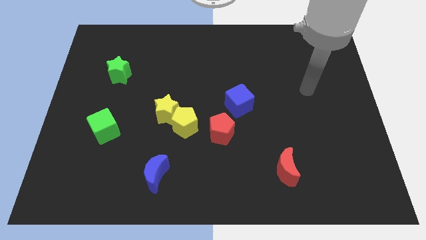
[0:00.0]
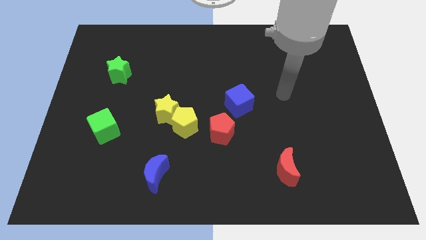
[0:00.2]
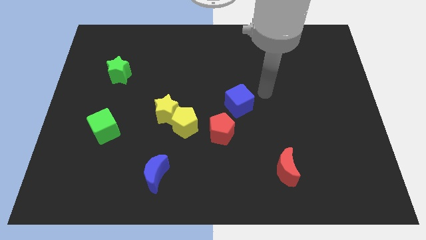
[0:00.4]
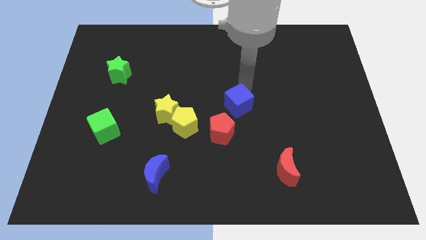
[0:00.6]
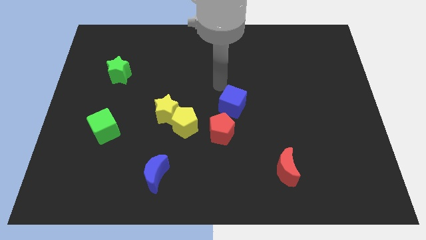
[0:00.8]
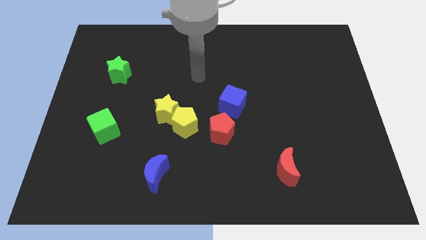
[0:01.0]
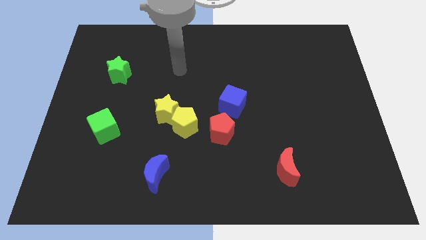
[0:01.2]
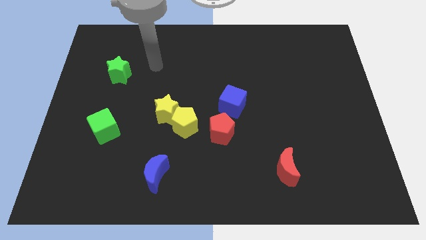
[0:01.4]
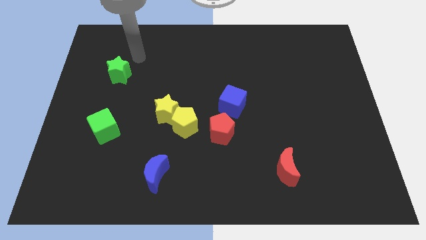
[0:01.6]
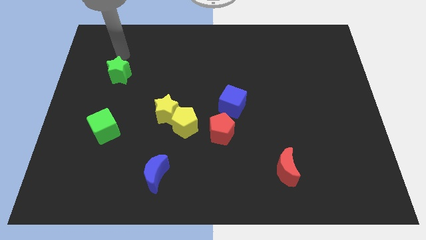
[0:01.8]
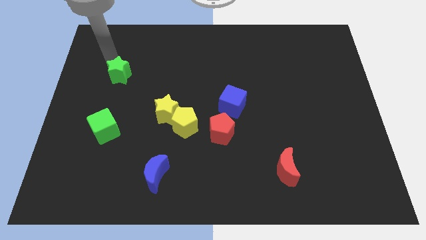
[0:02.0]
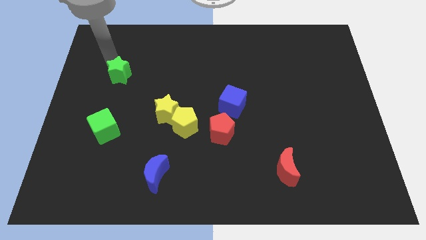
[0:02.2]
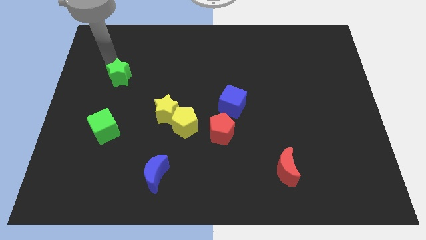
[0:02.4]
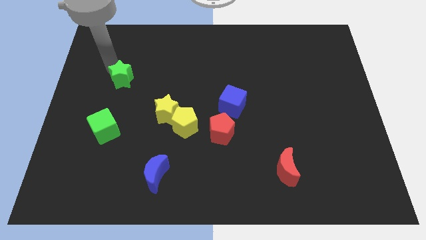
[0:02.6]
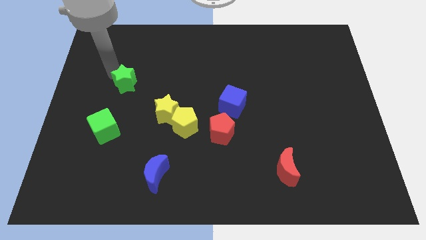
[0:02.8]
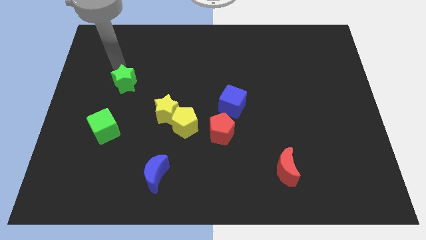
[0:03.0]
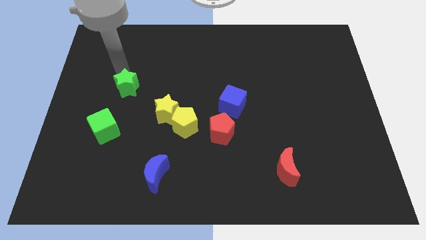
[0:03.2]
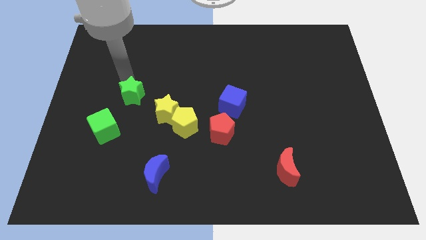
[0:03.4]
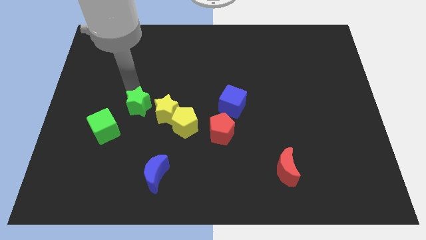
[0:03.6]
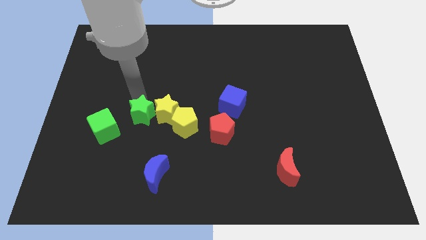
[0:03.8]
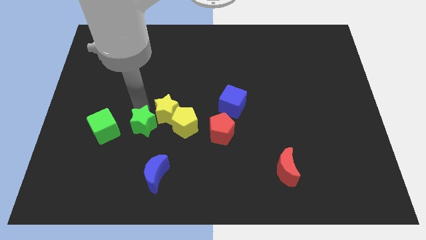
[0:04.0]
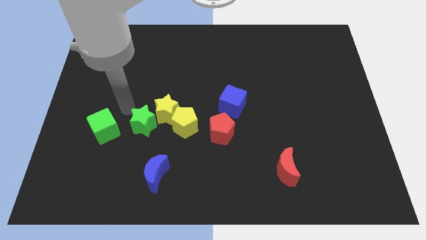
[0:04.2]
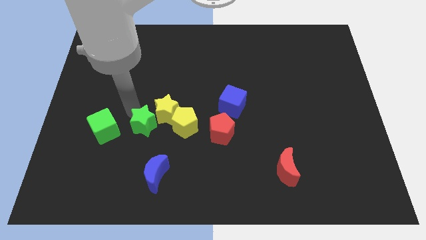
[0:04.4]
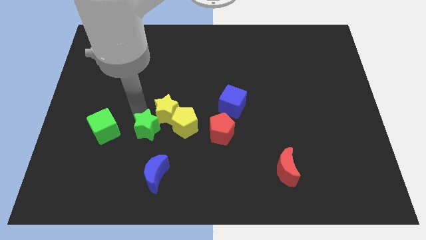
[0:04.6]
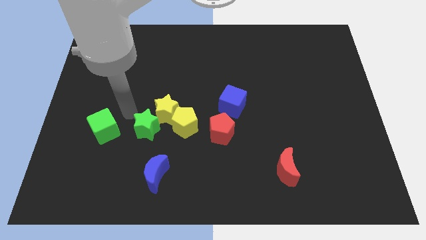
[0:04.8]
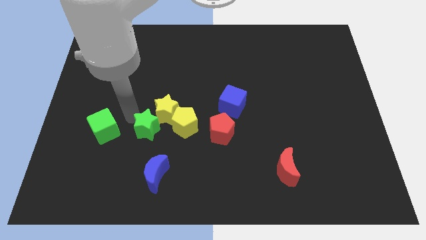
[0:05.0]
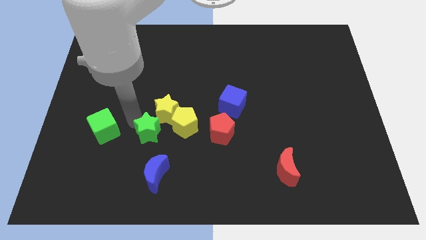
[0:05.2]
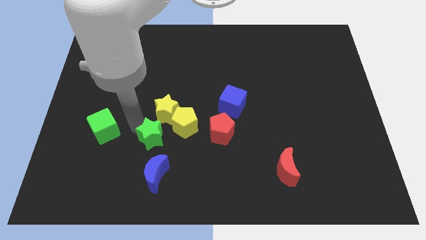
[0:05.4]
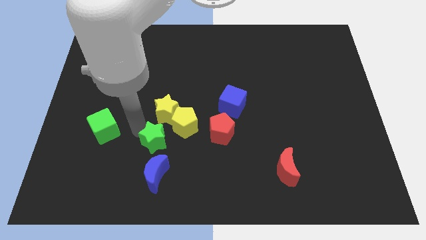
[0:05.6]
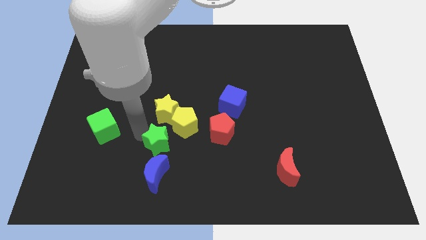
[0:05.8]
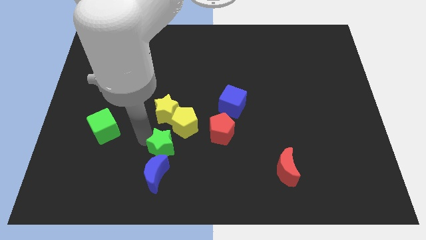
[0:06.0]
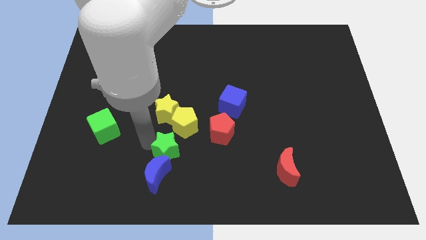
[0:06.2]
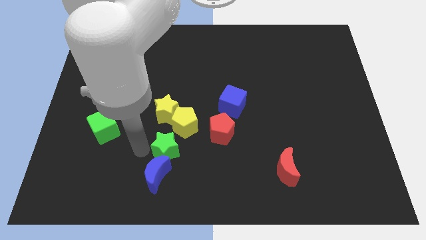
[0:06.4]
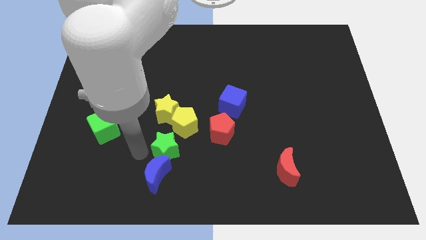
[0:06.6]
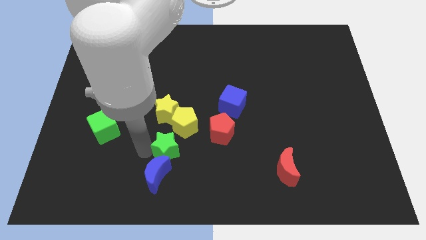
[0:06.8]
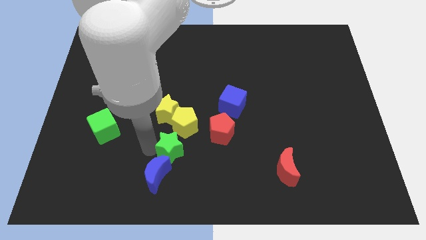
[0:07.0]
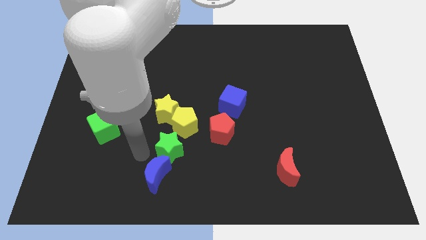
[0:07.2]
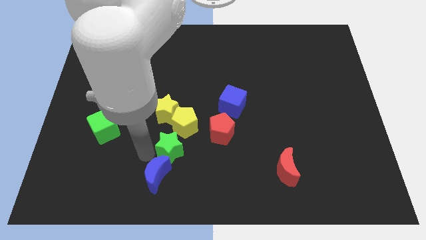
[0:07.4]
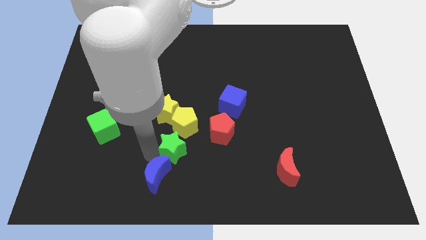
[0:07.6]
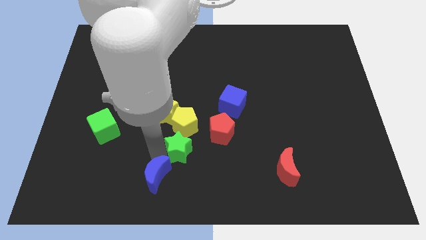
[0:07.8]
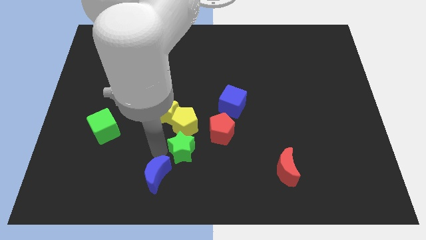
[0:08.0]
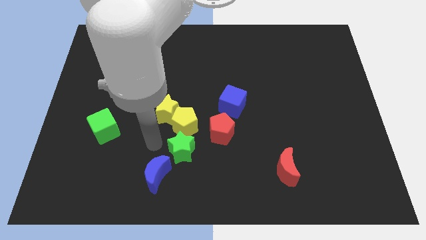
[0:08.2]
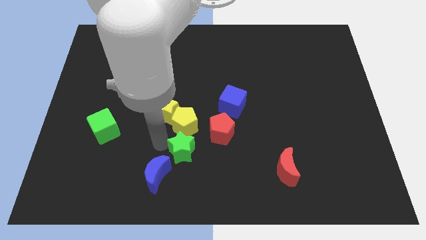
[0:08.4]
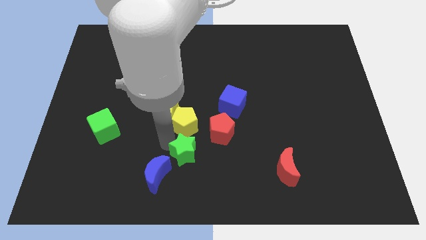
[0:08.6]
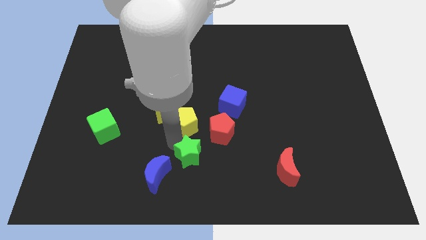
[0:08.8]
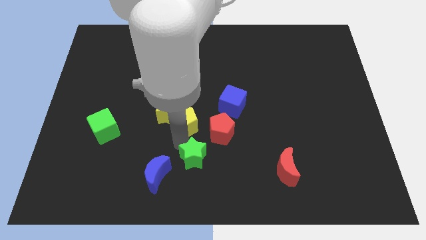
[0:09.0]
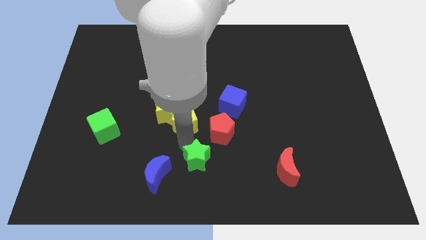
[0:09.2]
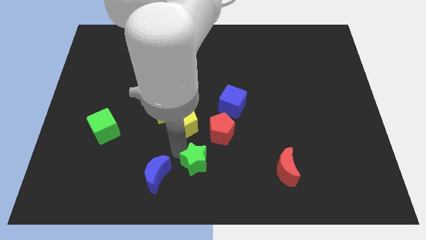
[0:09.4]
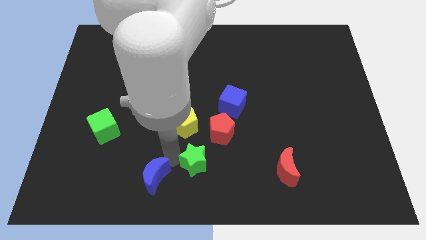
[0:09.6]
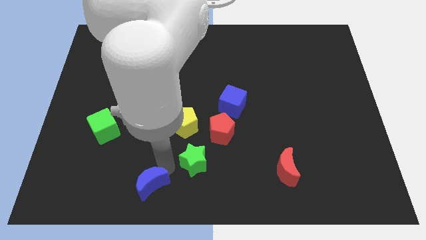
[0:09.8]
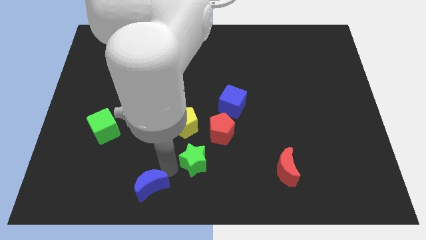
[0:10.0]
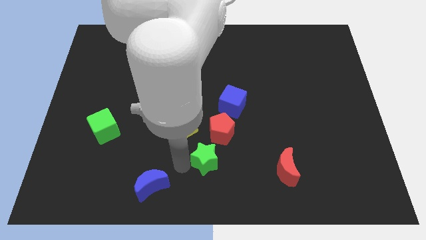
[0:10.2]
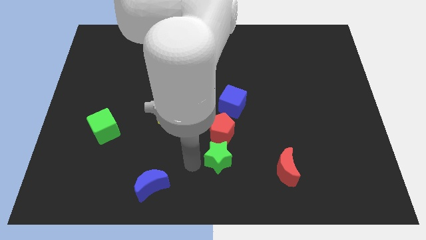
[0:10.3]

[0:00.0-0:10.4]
push the green star to the bottom of the blue cube

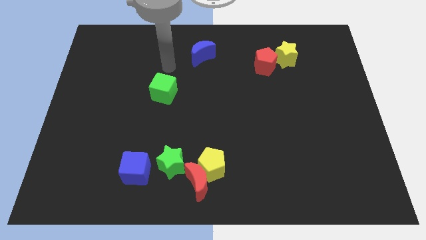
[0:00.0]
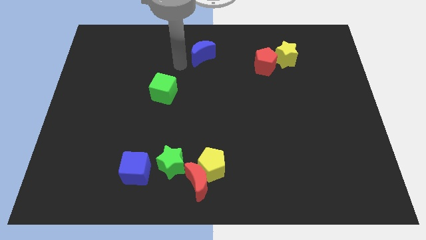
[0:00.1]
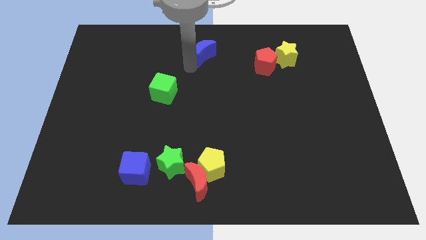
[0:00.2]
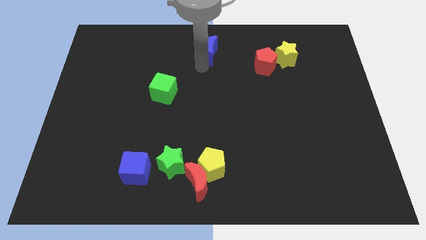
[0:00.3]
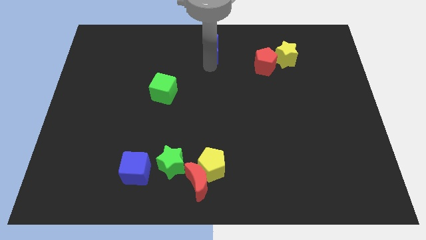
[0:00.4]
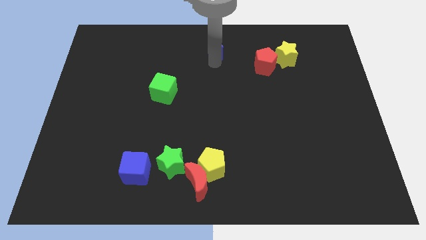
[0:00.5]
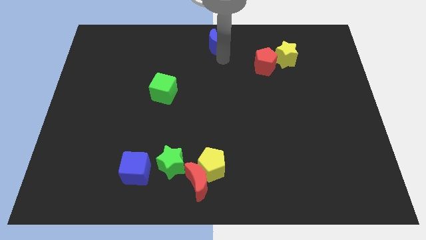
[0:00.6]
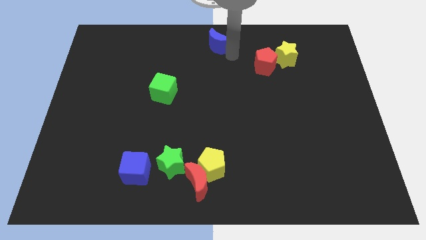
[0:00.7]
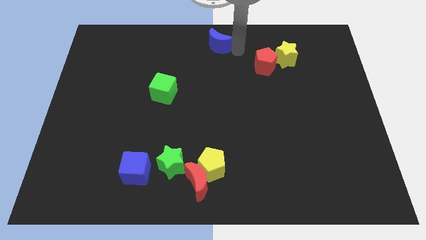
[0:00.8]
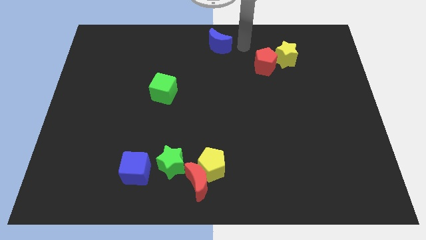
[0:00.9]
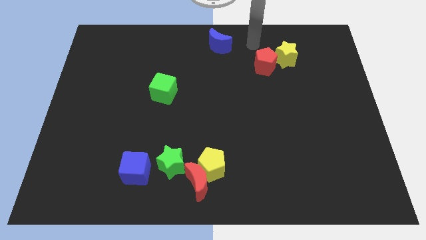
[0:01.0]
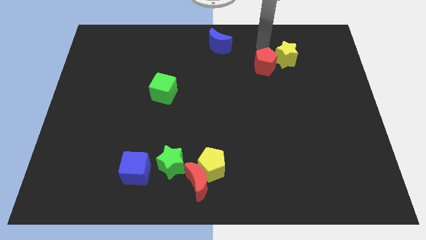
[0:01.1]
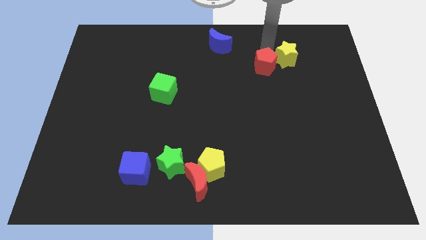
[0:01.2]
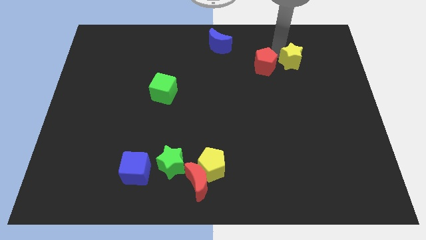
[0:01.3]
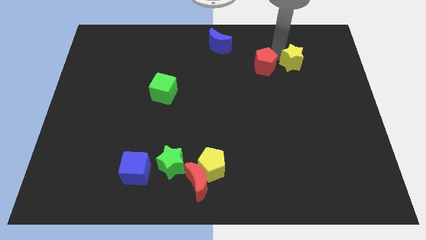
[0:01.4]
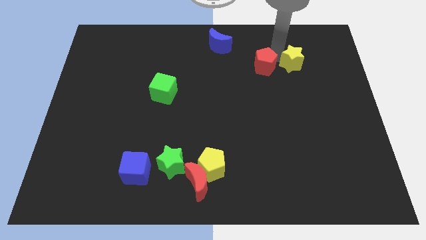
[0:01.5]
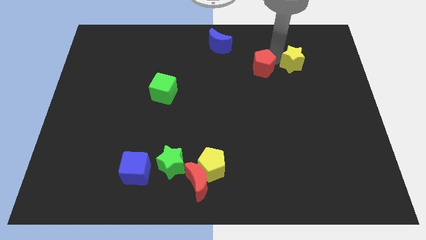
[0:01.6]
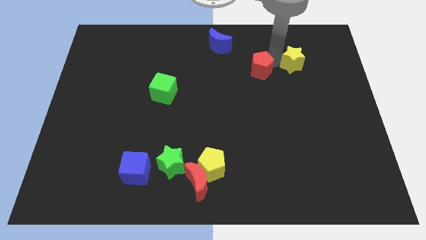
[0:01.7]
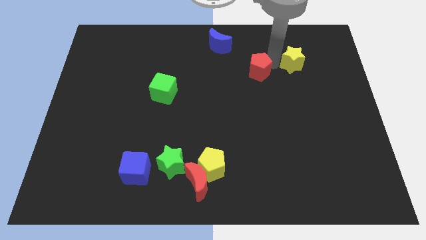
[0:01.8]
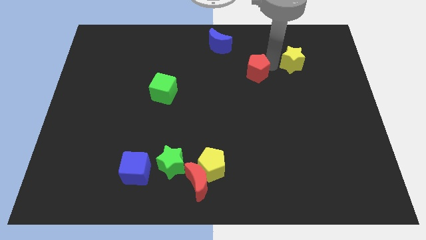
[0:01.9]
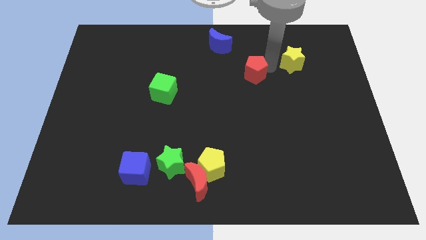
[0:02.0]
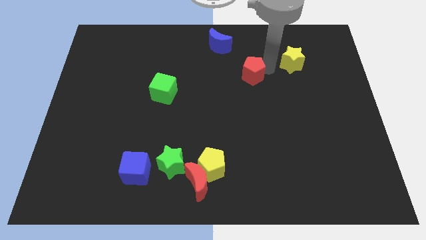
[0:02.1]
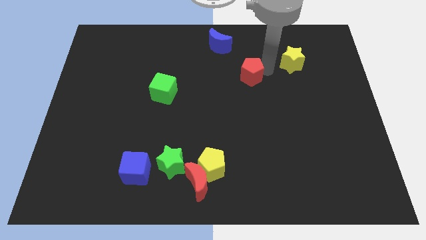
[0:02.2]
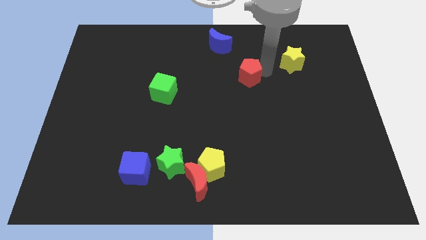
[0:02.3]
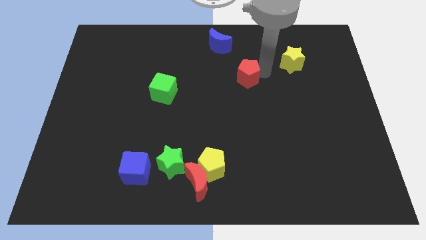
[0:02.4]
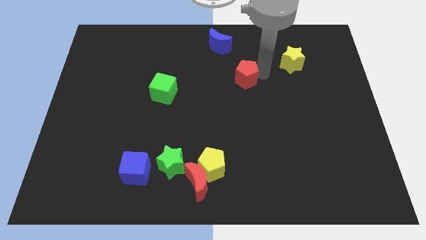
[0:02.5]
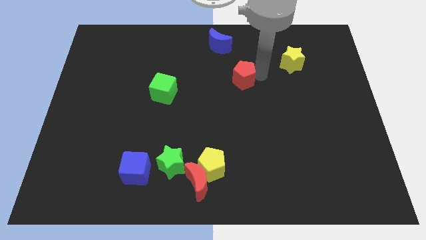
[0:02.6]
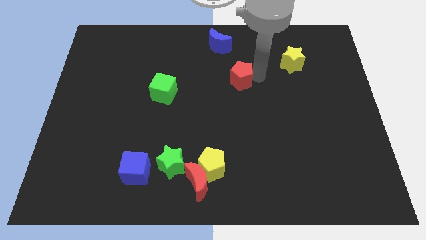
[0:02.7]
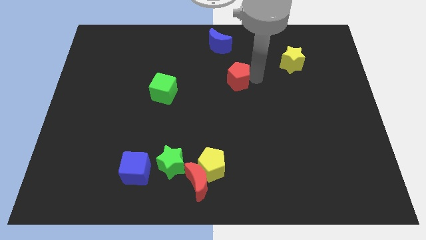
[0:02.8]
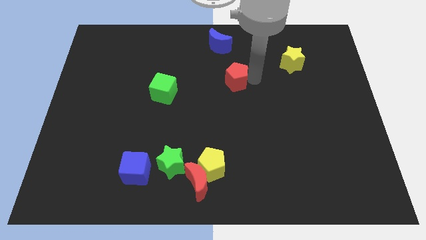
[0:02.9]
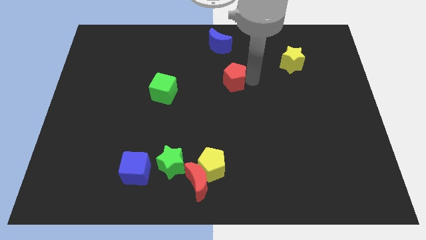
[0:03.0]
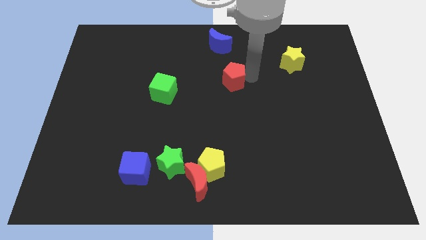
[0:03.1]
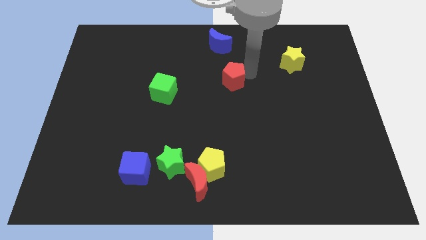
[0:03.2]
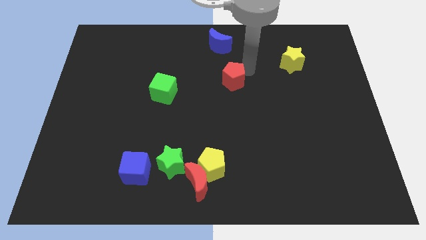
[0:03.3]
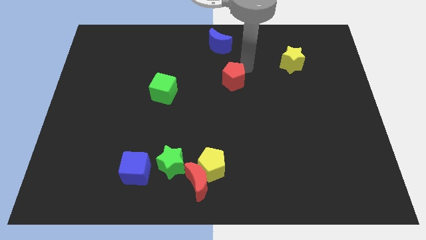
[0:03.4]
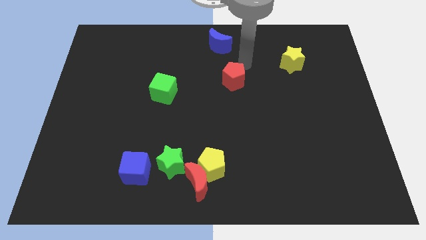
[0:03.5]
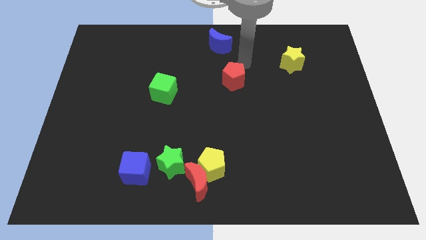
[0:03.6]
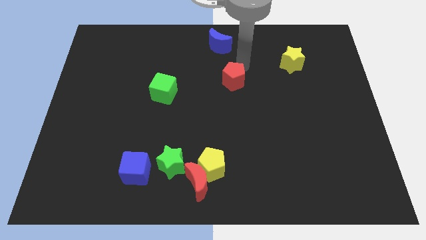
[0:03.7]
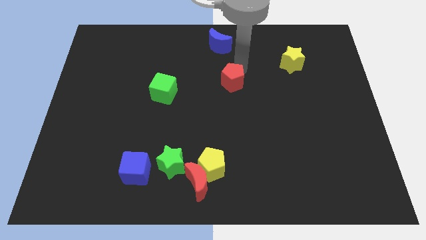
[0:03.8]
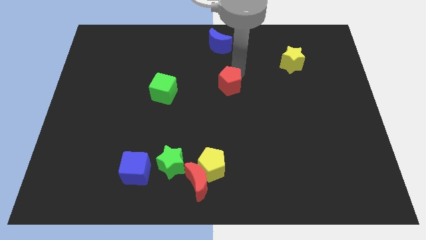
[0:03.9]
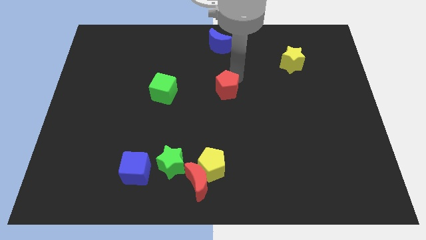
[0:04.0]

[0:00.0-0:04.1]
push the red pentagon to the right side of the green cube
